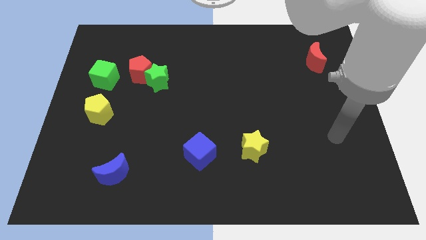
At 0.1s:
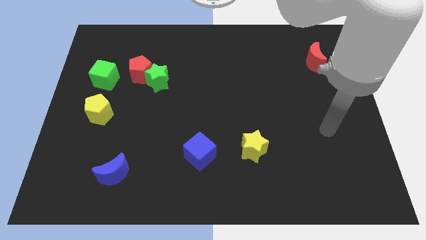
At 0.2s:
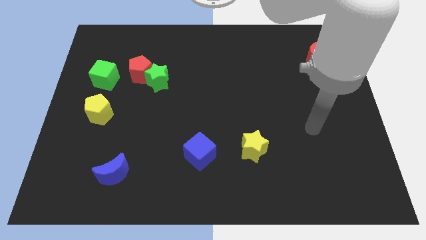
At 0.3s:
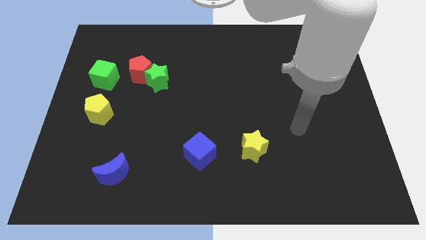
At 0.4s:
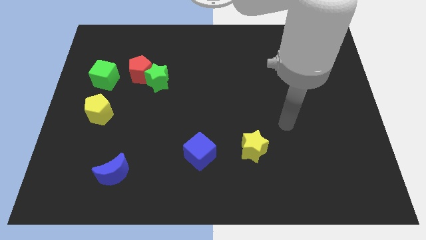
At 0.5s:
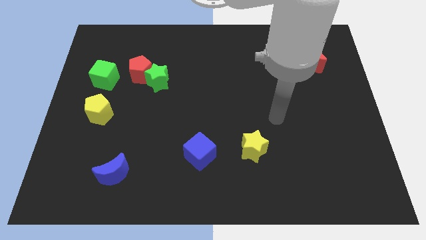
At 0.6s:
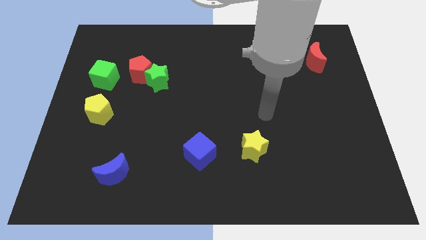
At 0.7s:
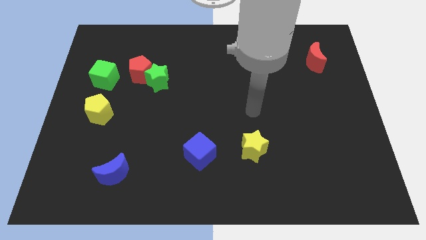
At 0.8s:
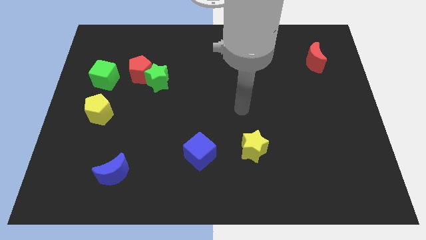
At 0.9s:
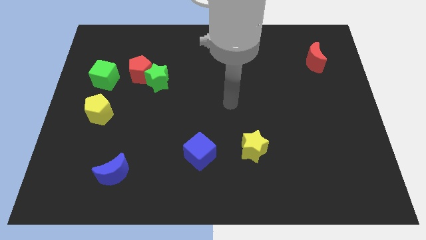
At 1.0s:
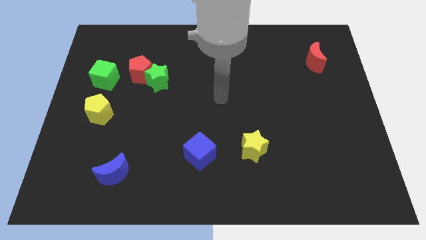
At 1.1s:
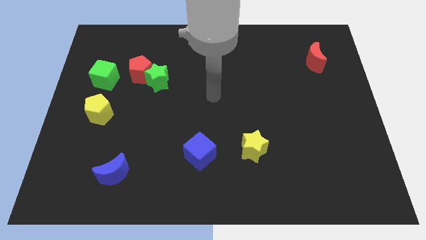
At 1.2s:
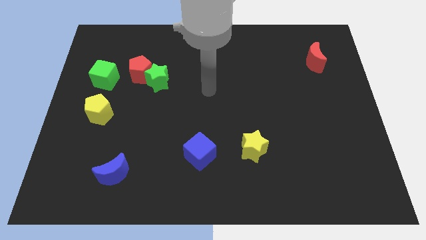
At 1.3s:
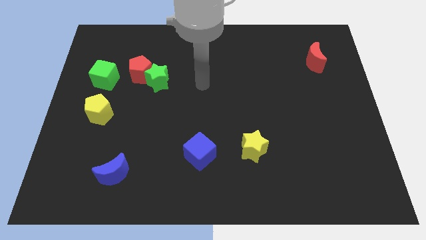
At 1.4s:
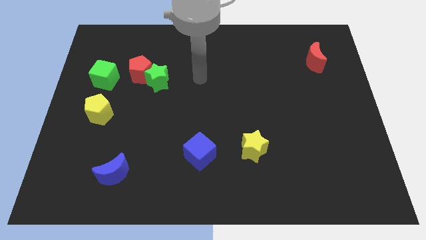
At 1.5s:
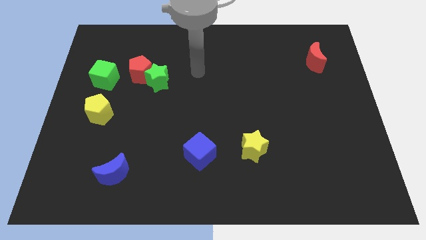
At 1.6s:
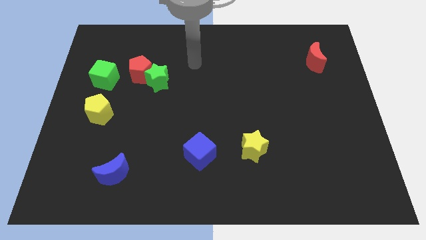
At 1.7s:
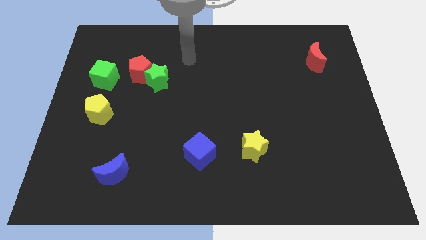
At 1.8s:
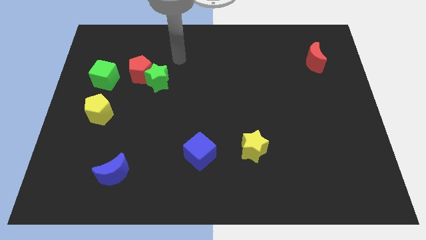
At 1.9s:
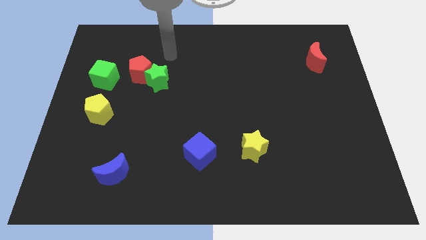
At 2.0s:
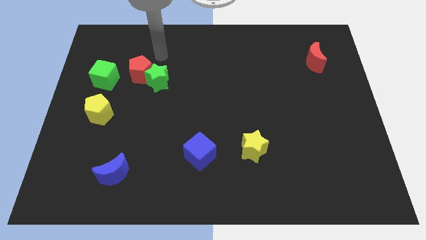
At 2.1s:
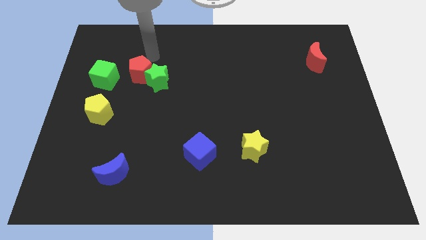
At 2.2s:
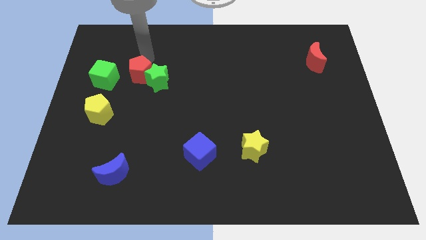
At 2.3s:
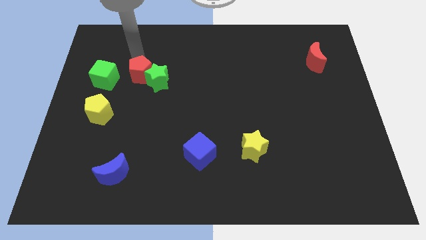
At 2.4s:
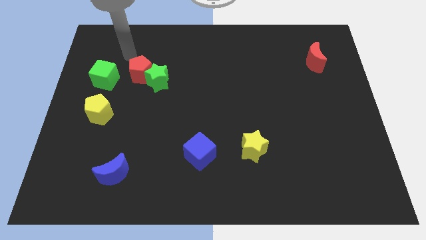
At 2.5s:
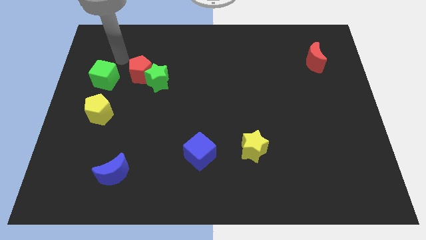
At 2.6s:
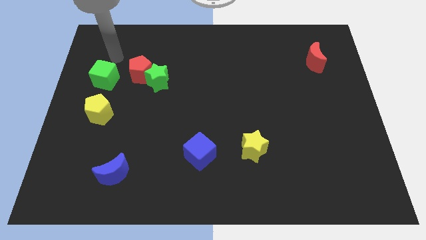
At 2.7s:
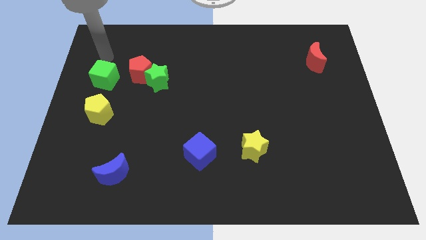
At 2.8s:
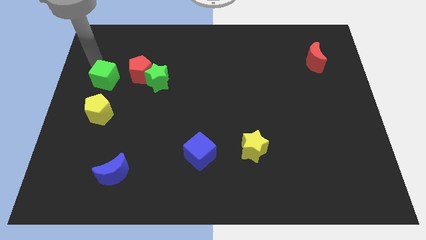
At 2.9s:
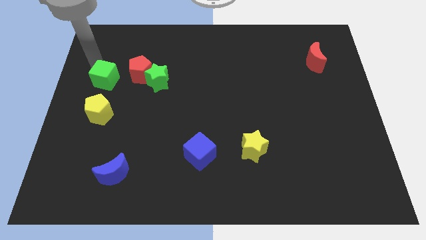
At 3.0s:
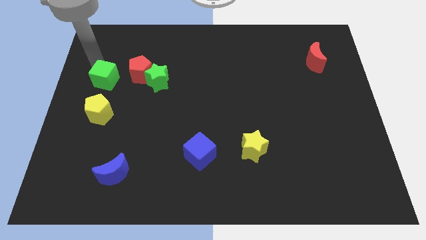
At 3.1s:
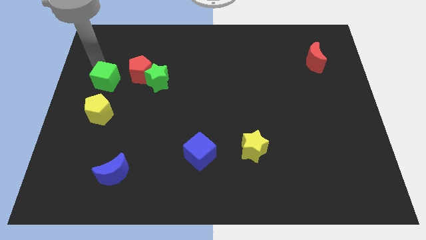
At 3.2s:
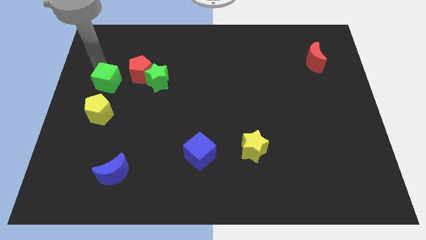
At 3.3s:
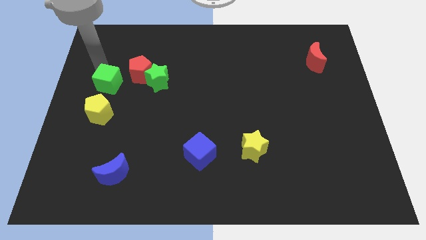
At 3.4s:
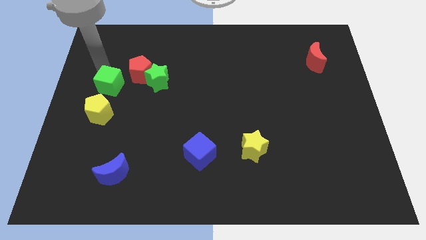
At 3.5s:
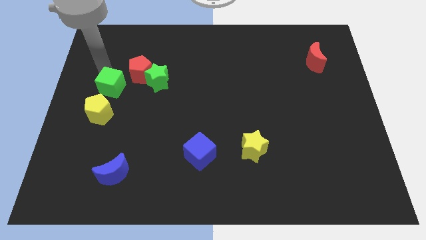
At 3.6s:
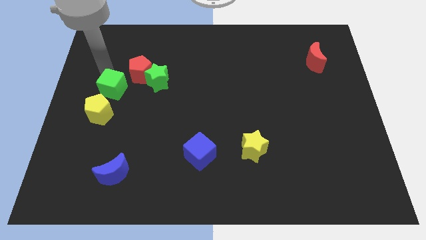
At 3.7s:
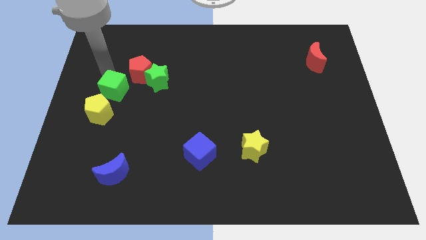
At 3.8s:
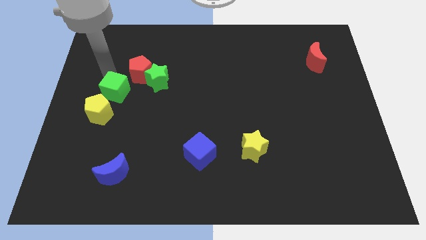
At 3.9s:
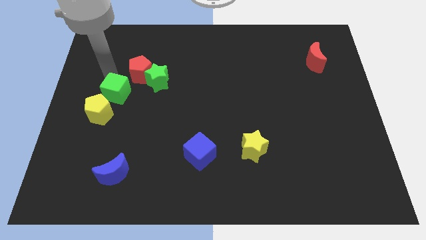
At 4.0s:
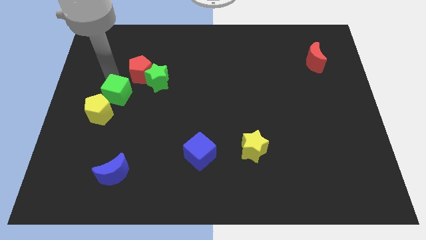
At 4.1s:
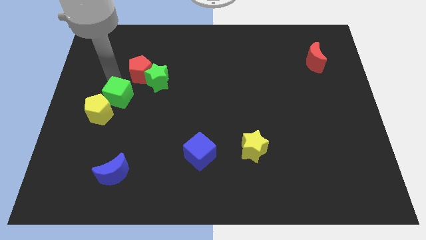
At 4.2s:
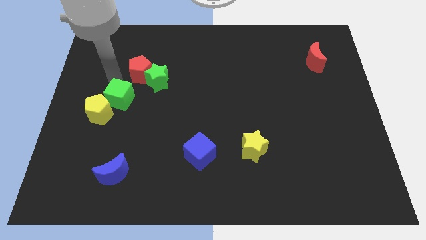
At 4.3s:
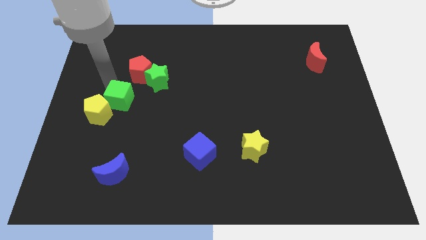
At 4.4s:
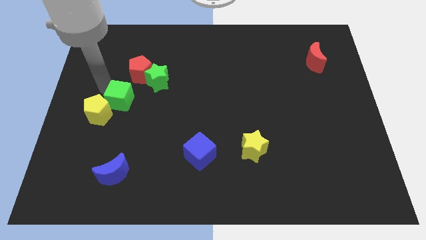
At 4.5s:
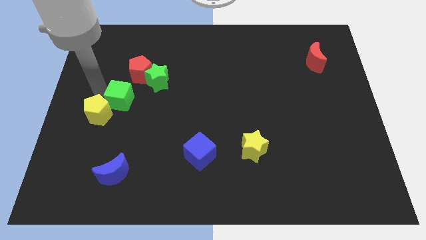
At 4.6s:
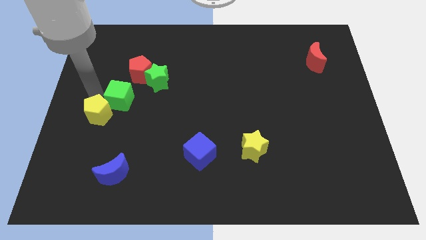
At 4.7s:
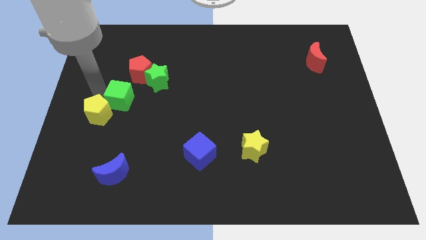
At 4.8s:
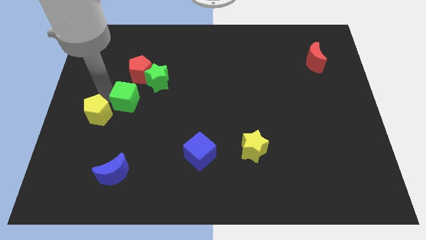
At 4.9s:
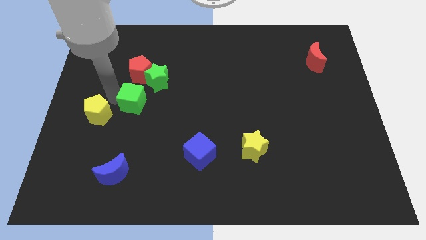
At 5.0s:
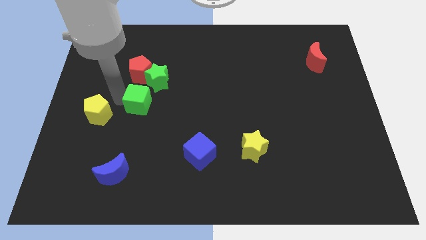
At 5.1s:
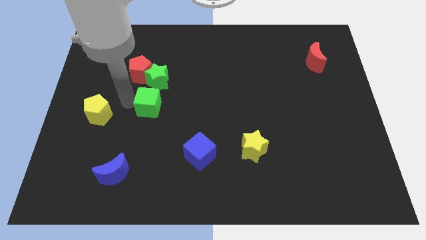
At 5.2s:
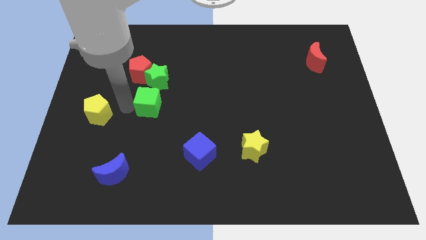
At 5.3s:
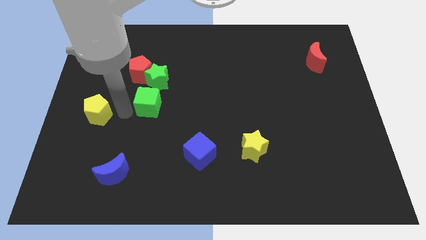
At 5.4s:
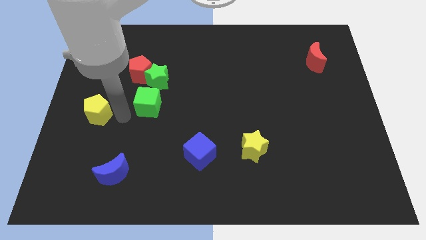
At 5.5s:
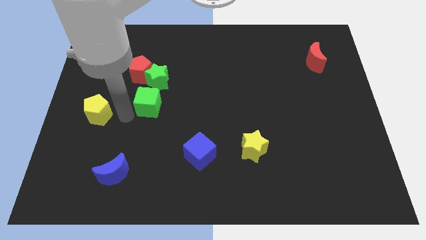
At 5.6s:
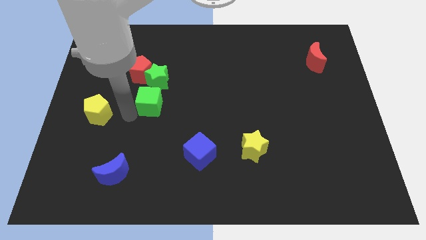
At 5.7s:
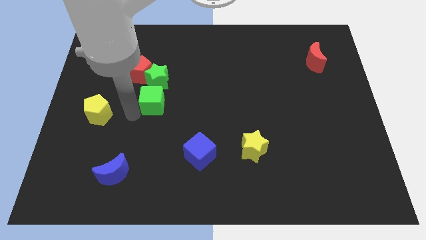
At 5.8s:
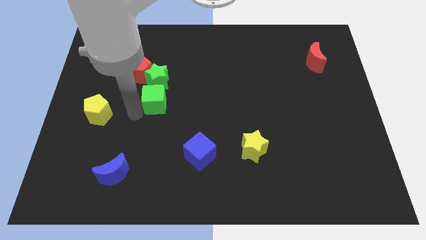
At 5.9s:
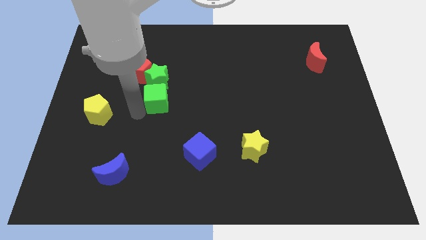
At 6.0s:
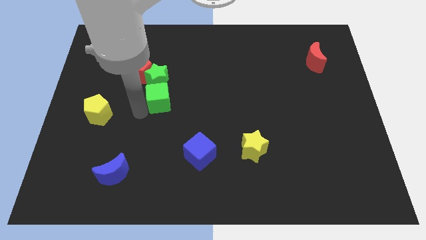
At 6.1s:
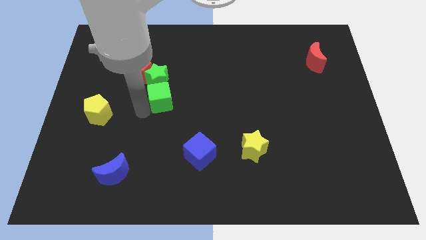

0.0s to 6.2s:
move the green cube to the center

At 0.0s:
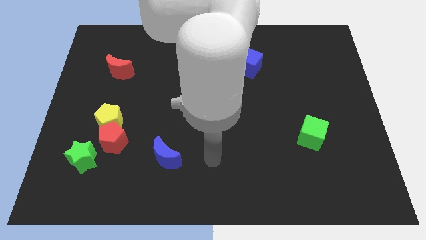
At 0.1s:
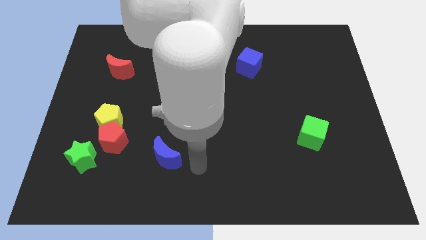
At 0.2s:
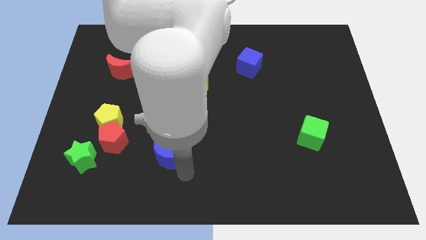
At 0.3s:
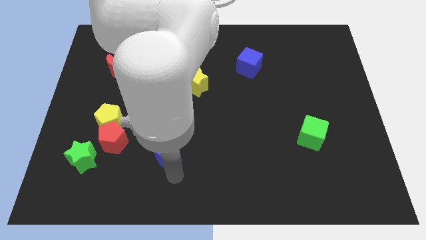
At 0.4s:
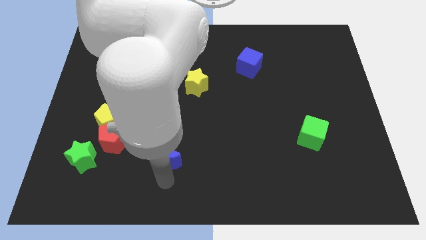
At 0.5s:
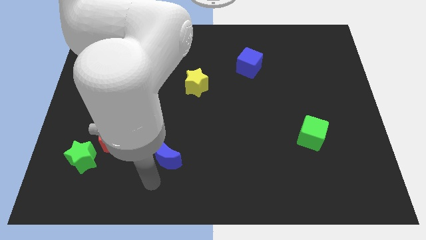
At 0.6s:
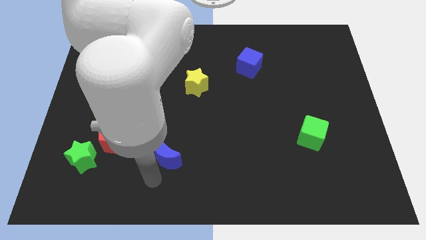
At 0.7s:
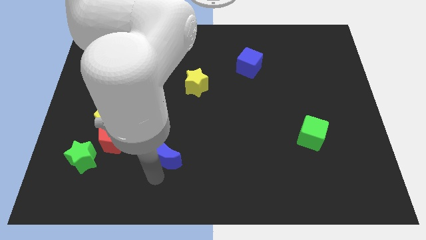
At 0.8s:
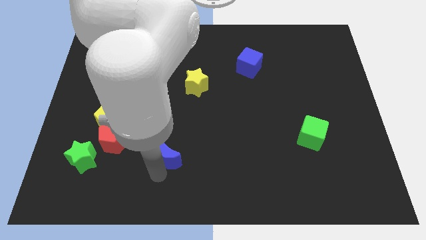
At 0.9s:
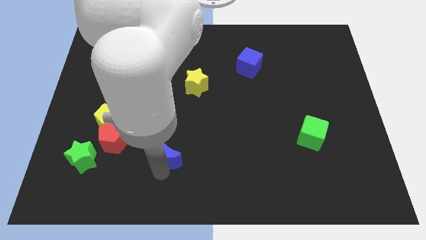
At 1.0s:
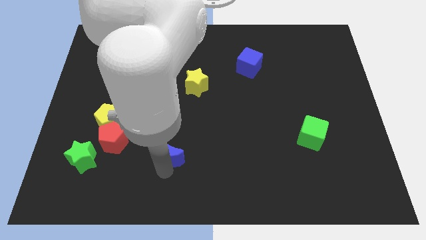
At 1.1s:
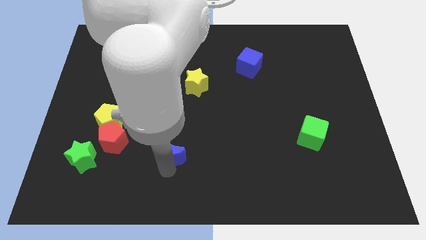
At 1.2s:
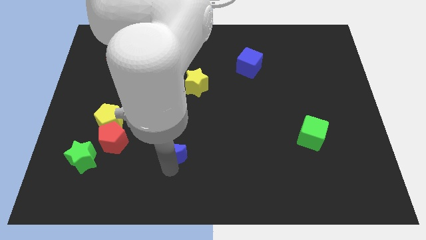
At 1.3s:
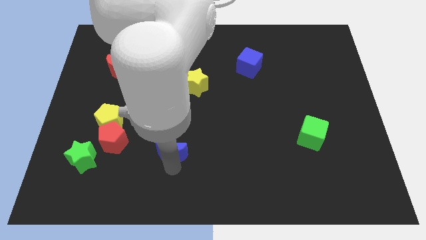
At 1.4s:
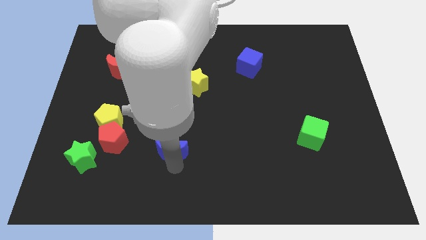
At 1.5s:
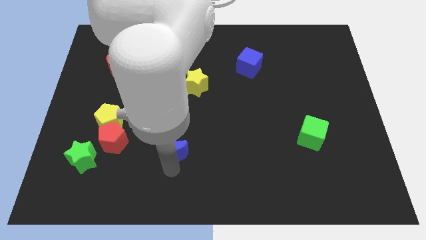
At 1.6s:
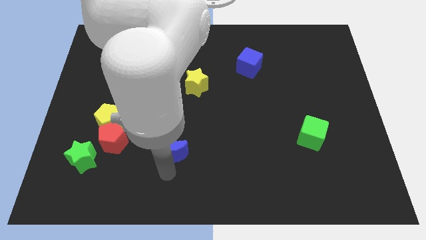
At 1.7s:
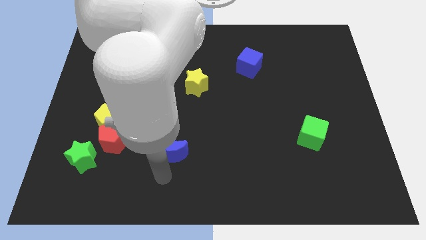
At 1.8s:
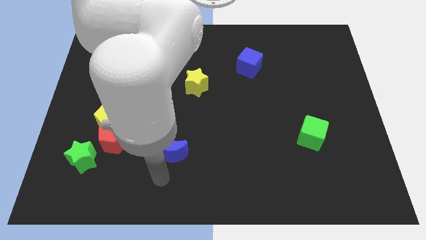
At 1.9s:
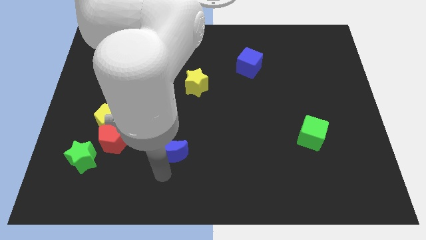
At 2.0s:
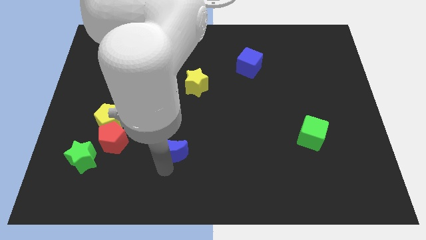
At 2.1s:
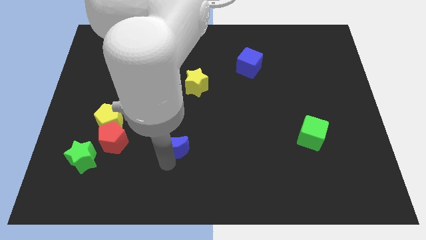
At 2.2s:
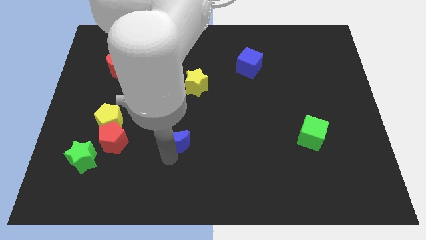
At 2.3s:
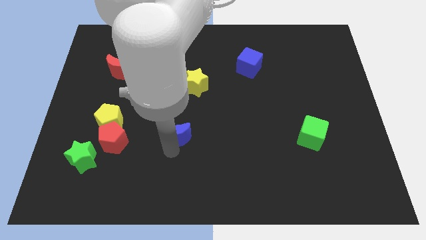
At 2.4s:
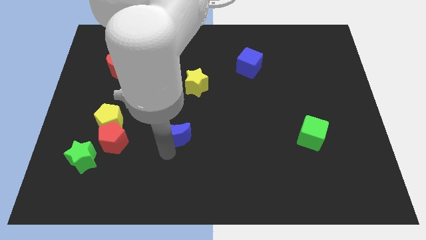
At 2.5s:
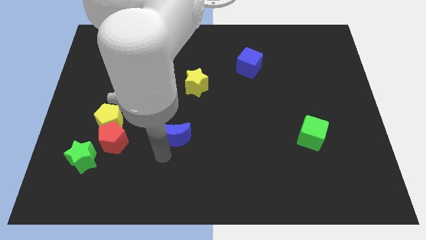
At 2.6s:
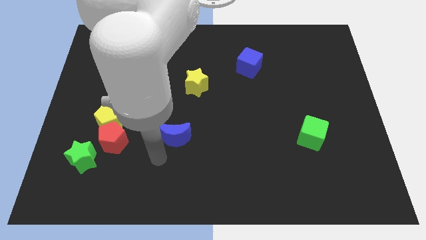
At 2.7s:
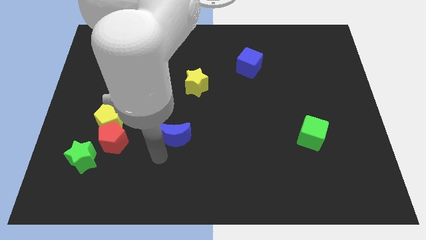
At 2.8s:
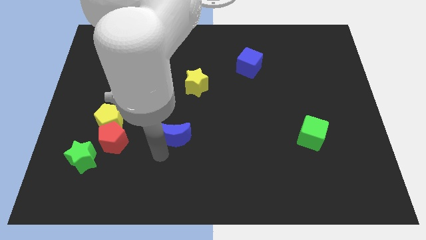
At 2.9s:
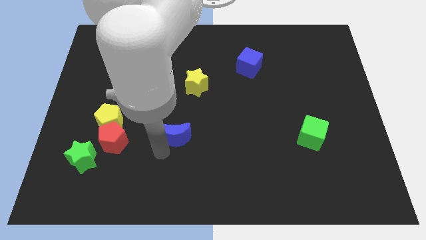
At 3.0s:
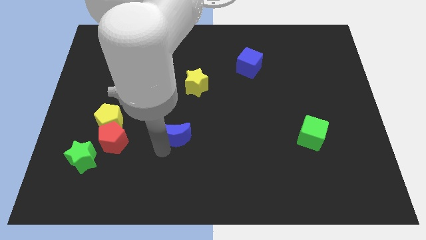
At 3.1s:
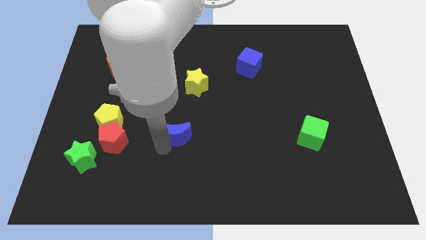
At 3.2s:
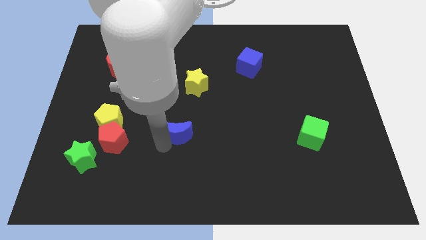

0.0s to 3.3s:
slide the blue moon to the center
